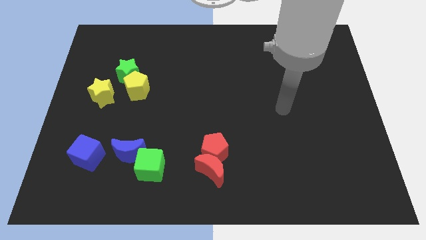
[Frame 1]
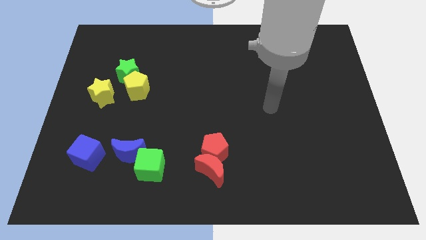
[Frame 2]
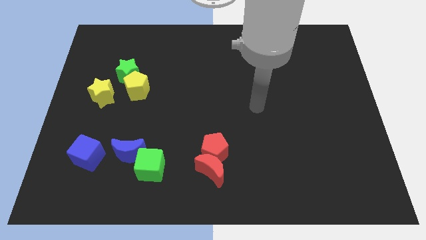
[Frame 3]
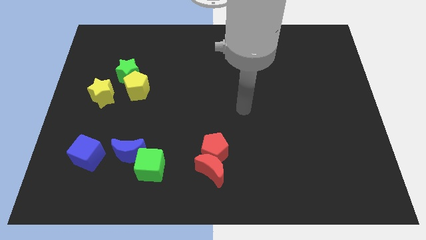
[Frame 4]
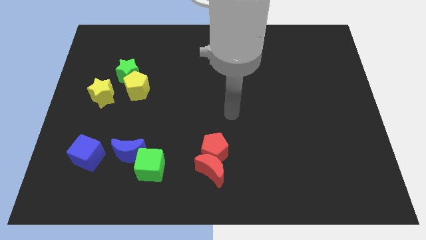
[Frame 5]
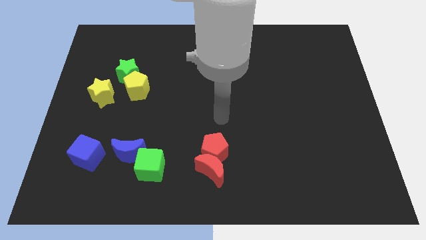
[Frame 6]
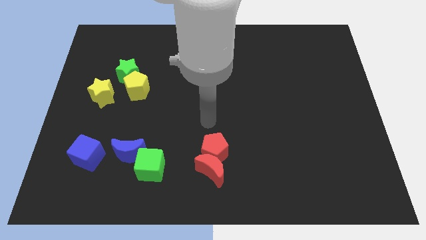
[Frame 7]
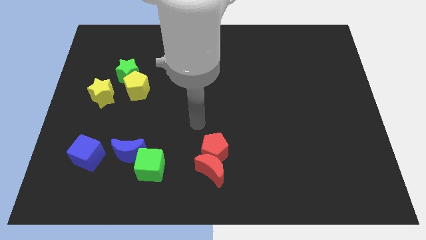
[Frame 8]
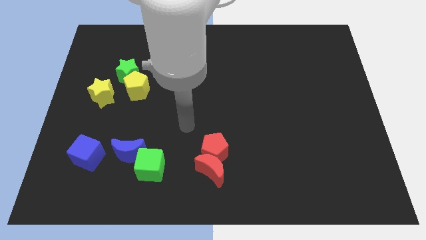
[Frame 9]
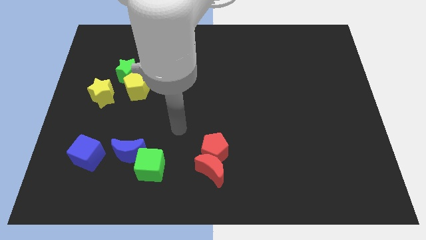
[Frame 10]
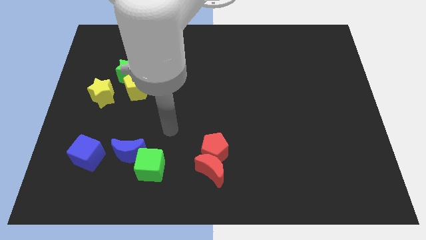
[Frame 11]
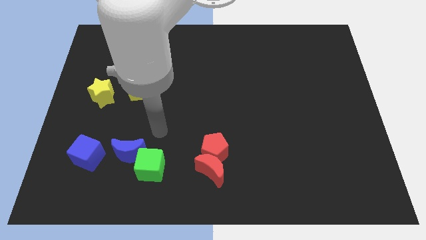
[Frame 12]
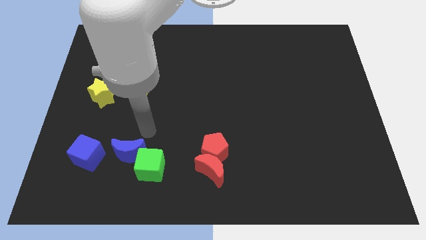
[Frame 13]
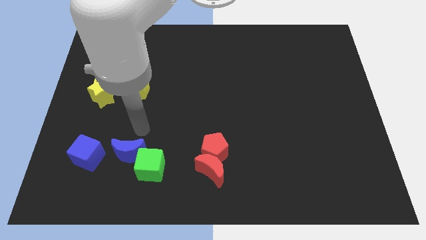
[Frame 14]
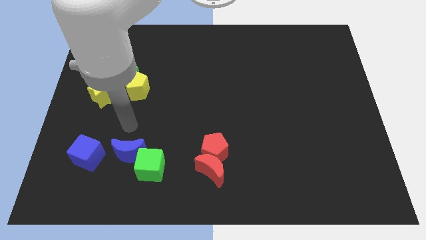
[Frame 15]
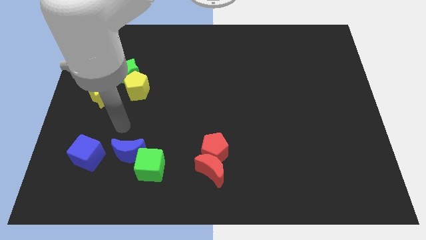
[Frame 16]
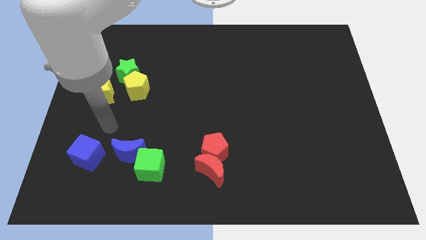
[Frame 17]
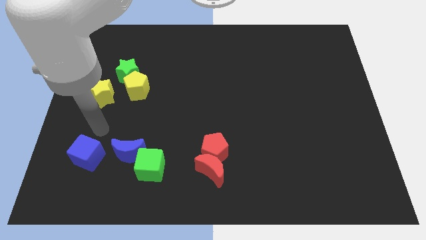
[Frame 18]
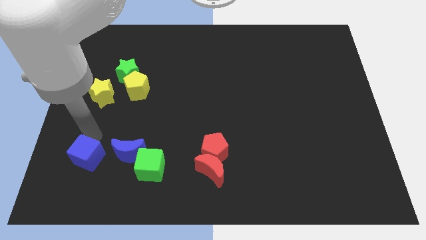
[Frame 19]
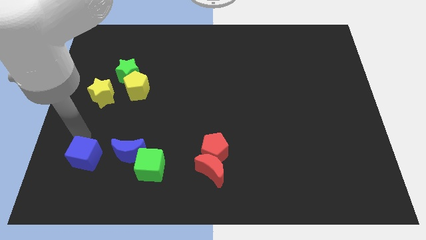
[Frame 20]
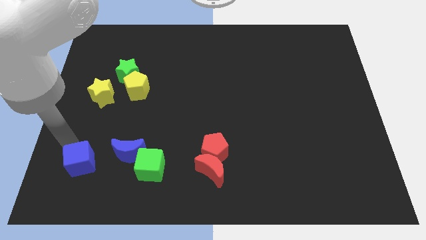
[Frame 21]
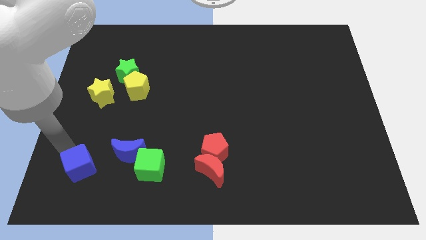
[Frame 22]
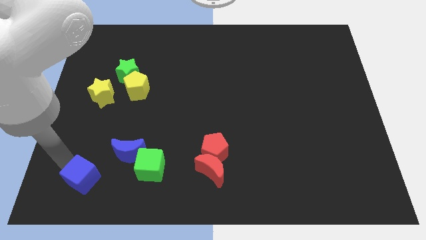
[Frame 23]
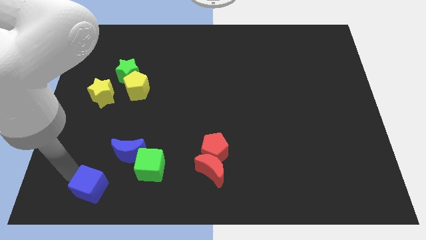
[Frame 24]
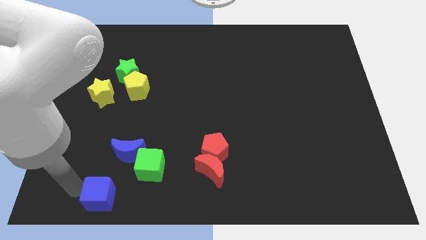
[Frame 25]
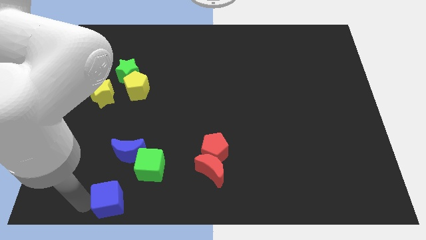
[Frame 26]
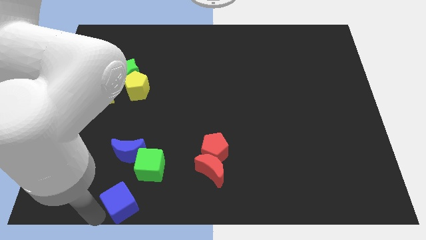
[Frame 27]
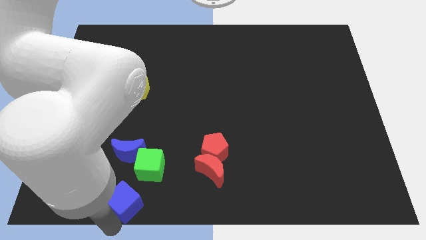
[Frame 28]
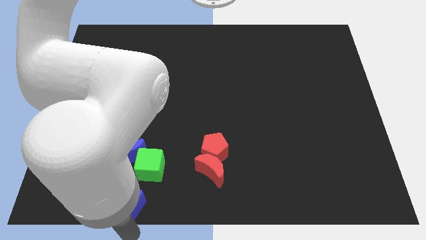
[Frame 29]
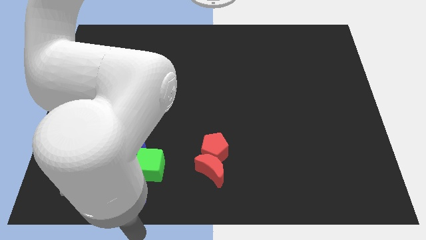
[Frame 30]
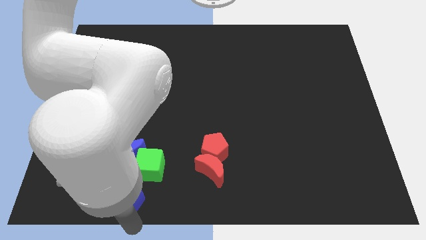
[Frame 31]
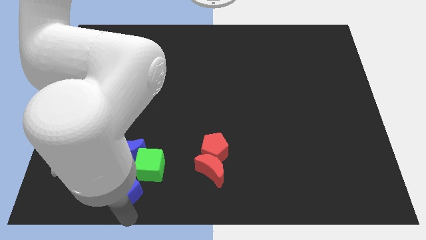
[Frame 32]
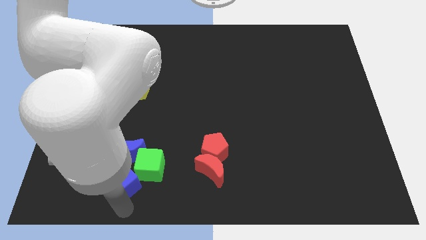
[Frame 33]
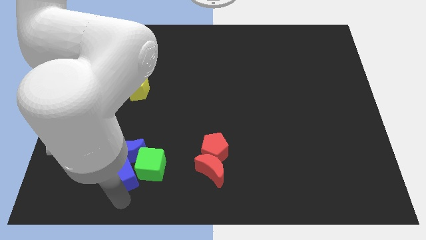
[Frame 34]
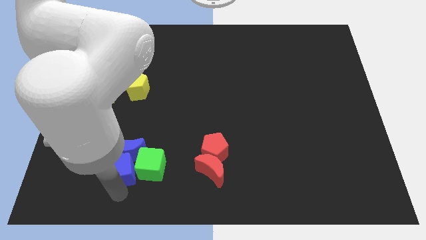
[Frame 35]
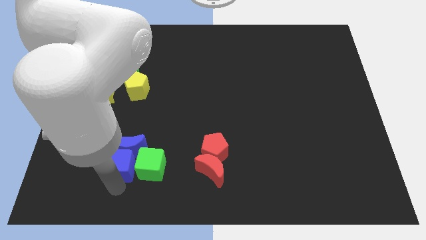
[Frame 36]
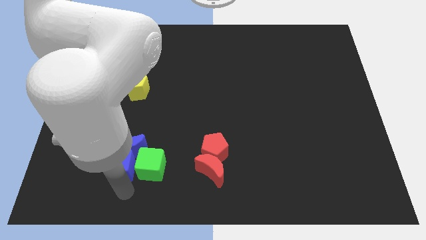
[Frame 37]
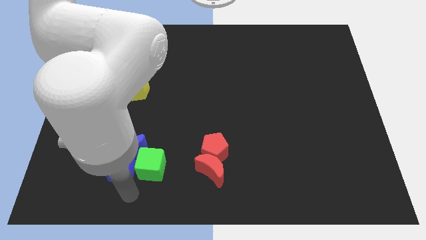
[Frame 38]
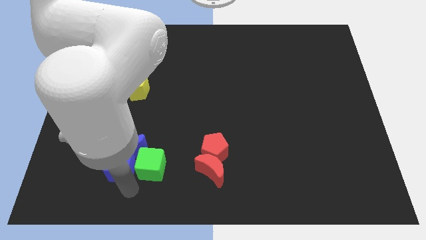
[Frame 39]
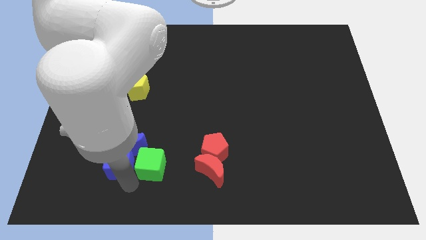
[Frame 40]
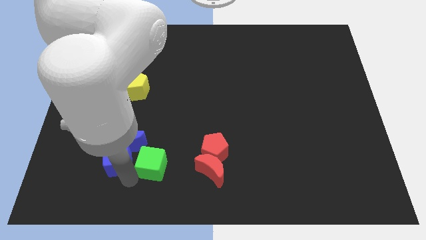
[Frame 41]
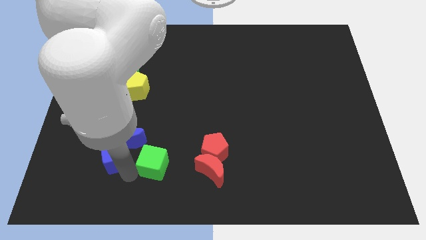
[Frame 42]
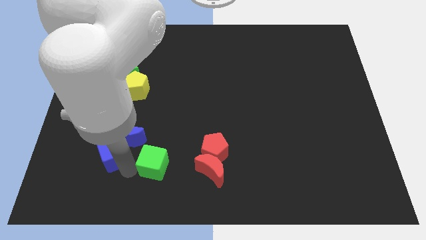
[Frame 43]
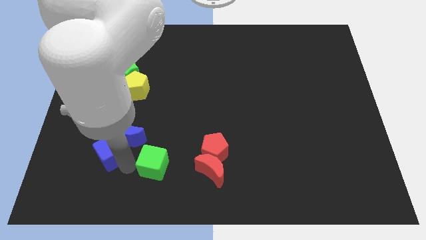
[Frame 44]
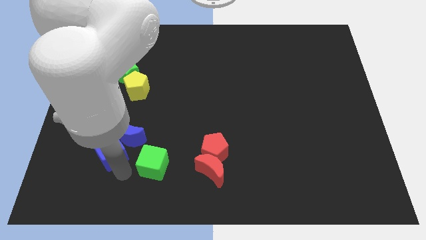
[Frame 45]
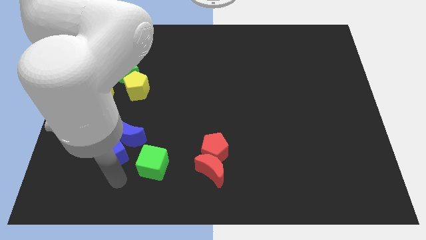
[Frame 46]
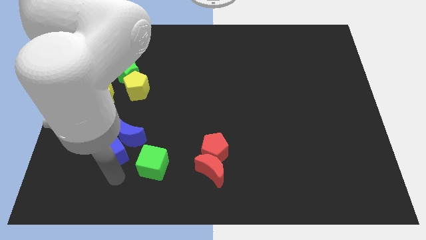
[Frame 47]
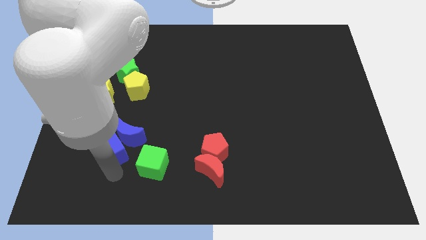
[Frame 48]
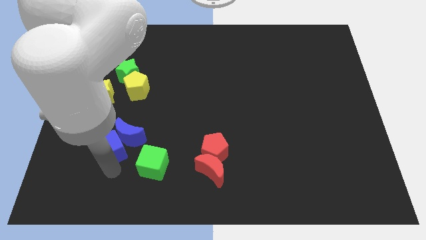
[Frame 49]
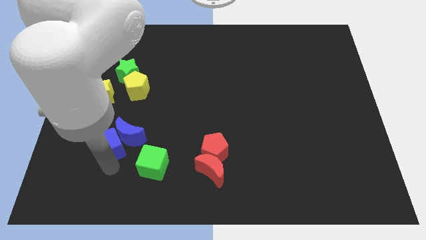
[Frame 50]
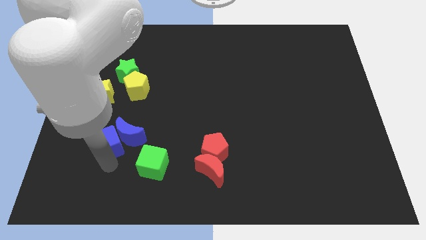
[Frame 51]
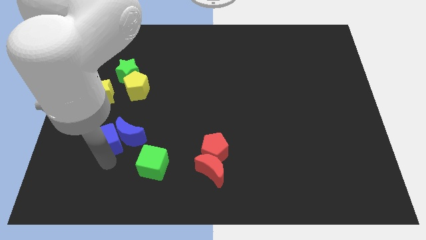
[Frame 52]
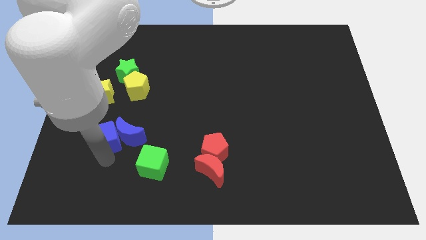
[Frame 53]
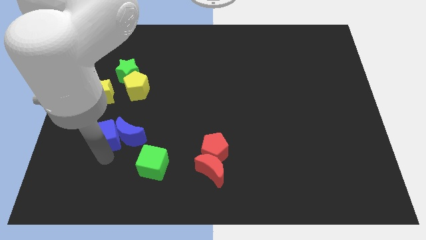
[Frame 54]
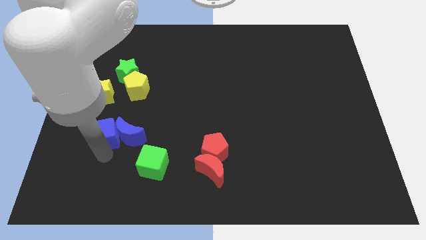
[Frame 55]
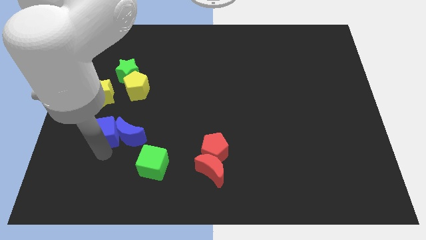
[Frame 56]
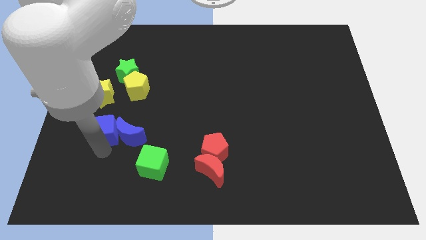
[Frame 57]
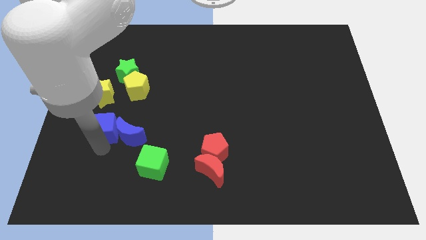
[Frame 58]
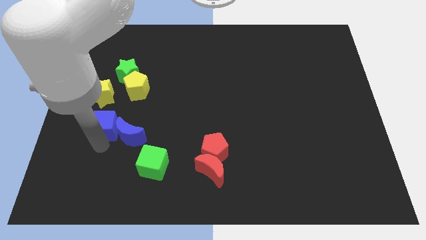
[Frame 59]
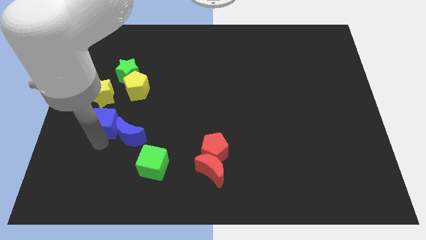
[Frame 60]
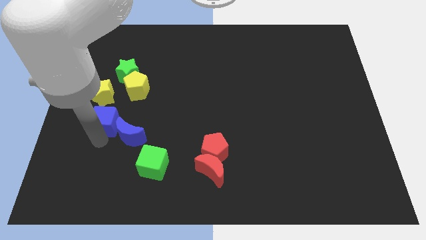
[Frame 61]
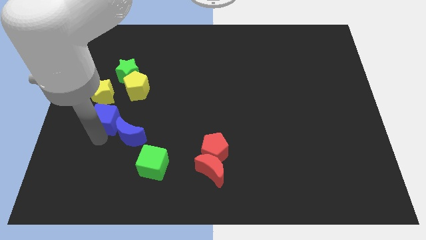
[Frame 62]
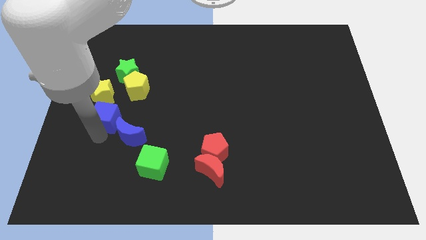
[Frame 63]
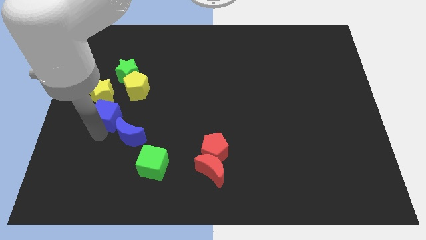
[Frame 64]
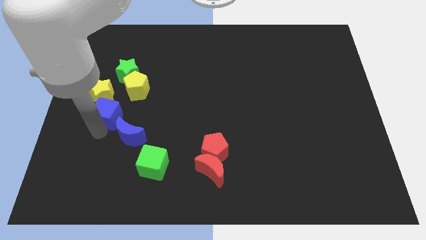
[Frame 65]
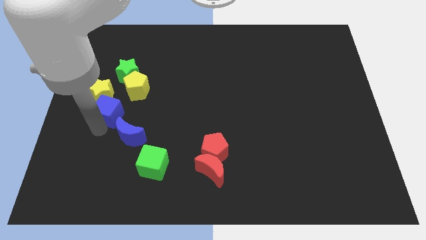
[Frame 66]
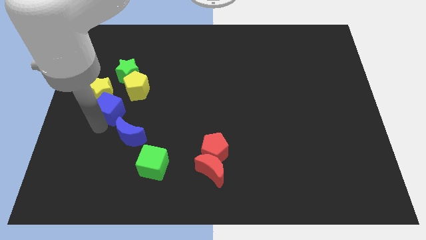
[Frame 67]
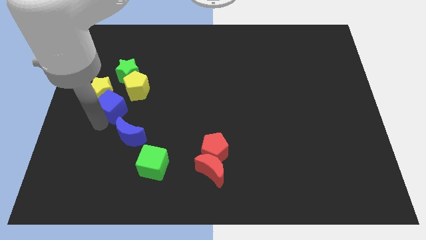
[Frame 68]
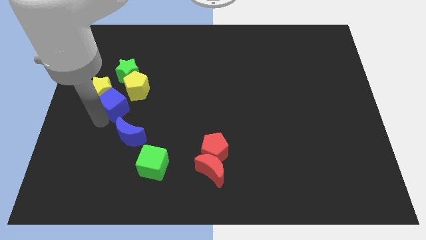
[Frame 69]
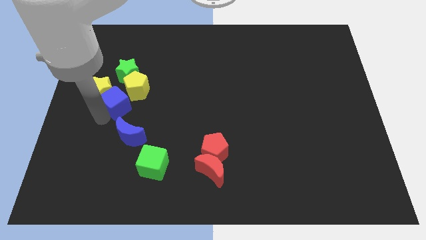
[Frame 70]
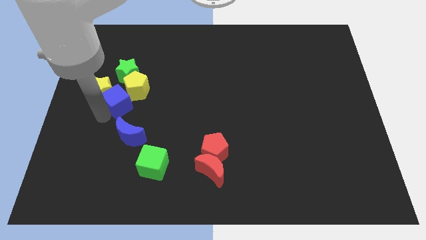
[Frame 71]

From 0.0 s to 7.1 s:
slide the blue cube close to the yellow pentagon

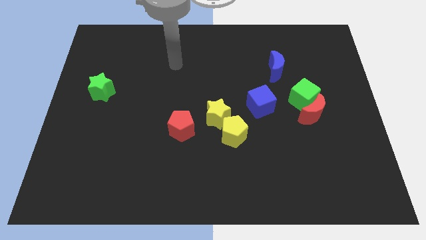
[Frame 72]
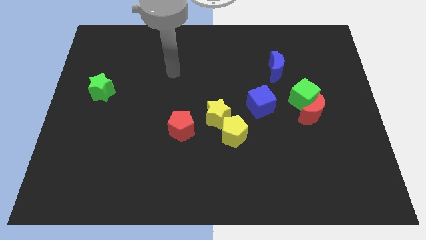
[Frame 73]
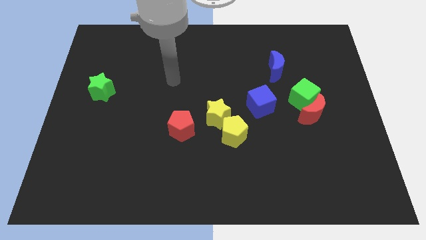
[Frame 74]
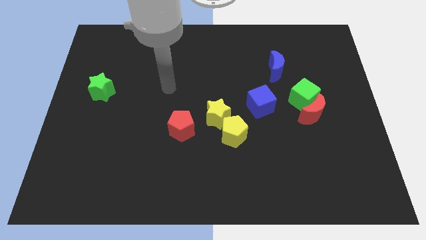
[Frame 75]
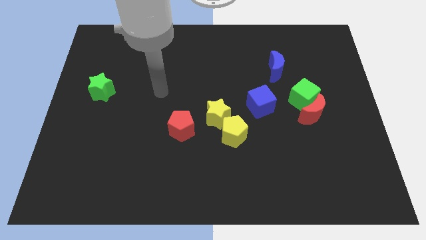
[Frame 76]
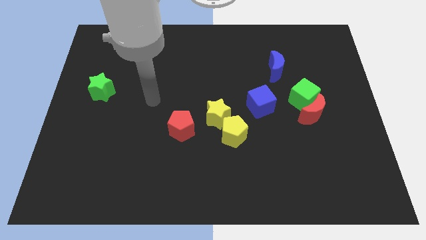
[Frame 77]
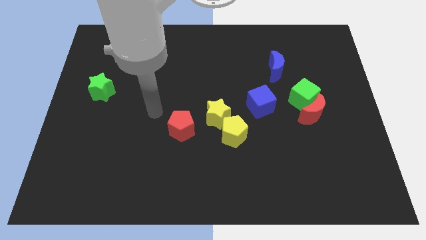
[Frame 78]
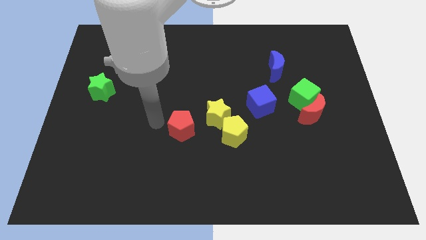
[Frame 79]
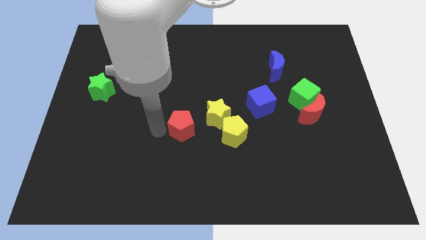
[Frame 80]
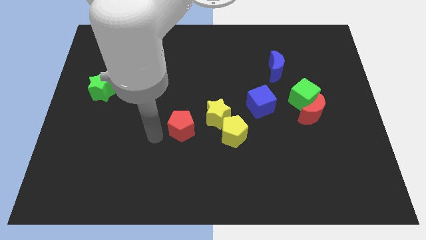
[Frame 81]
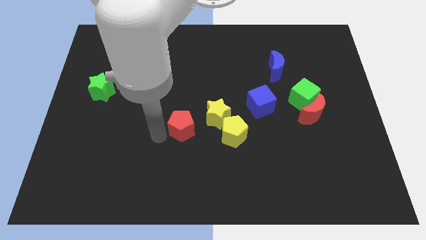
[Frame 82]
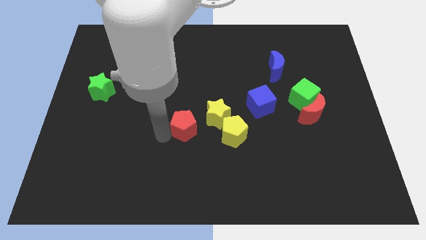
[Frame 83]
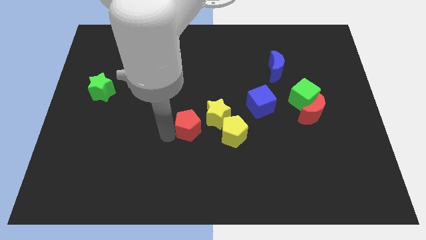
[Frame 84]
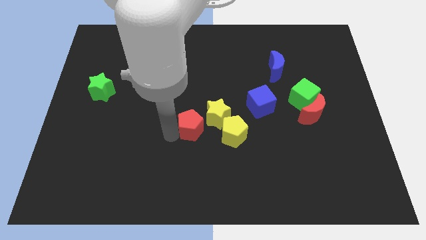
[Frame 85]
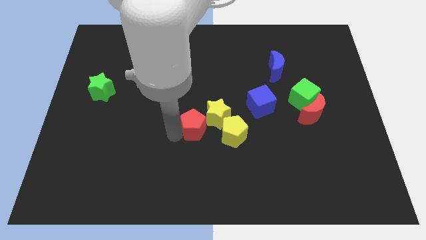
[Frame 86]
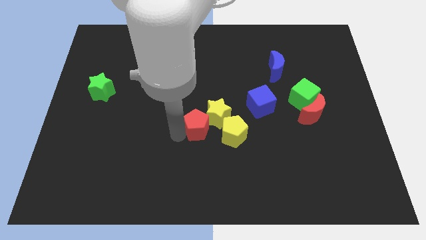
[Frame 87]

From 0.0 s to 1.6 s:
put the red pentagon to the yellow star
